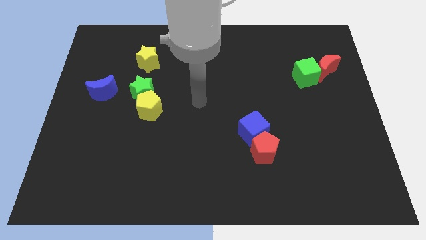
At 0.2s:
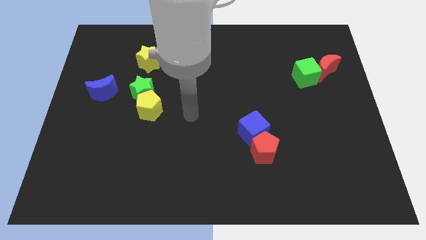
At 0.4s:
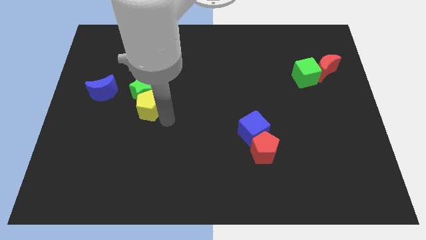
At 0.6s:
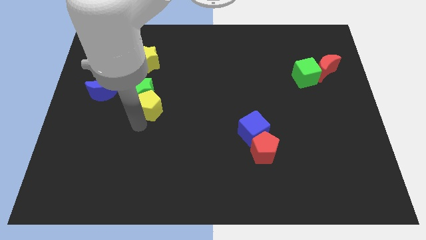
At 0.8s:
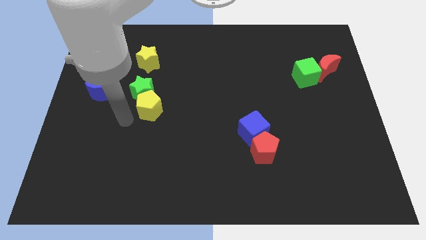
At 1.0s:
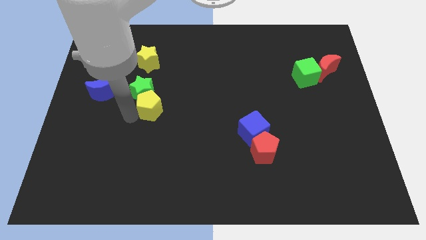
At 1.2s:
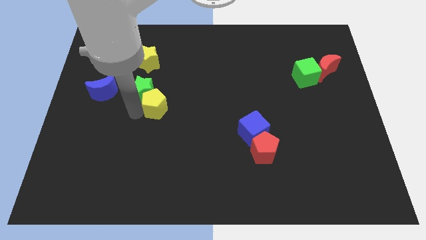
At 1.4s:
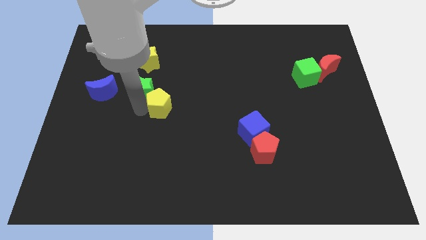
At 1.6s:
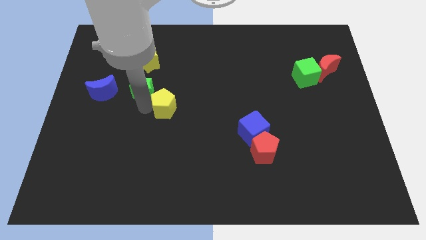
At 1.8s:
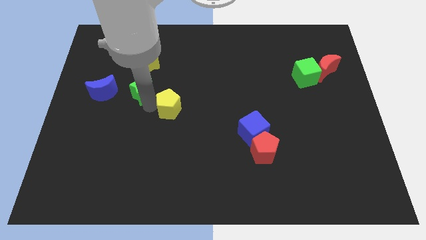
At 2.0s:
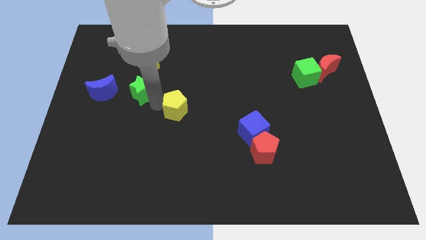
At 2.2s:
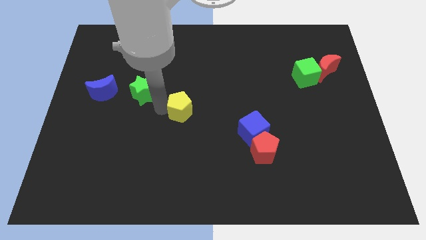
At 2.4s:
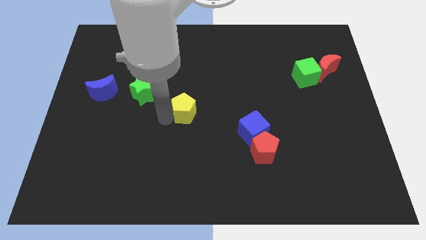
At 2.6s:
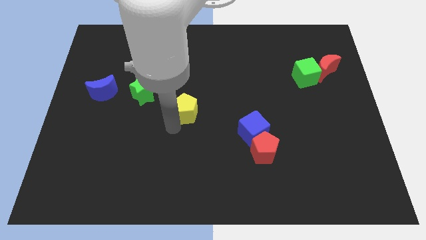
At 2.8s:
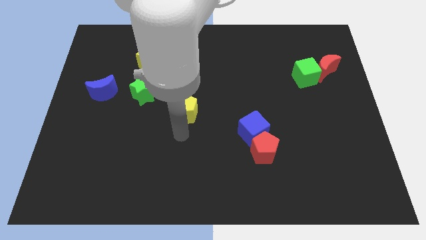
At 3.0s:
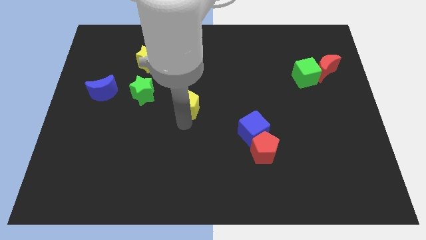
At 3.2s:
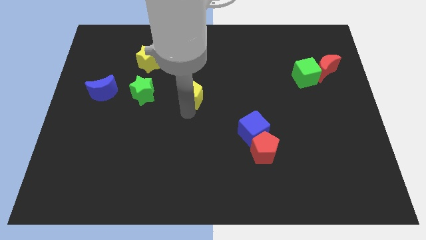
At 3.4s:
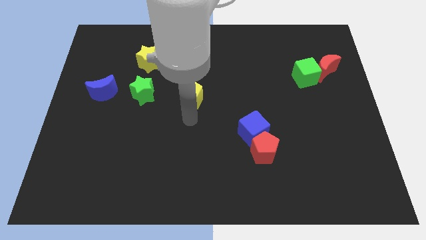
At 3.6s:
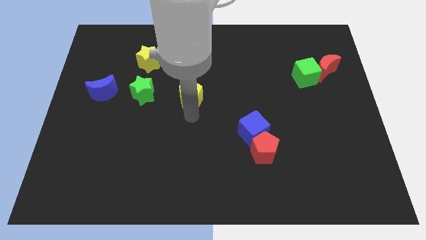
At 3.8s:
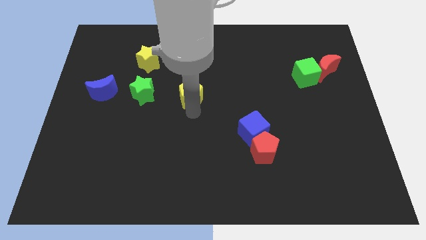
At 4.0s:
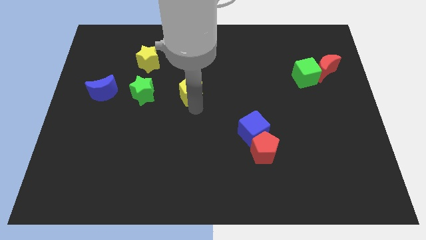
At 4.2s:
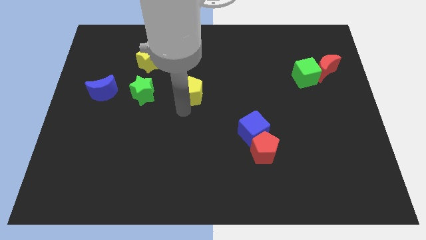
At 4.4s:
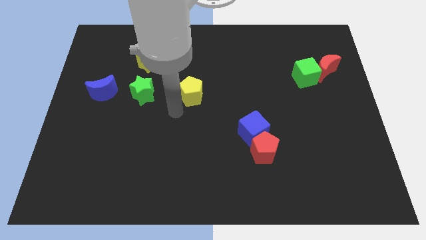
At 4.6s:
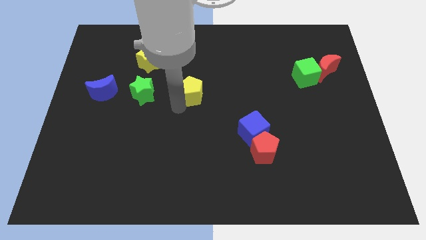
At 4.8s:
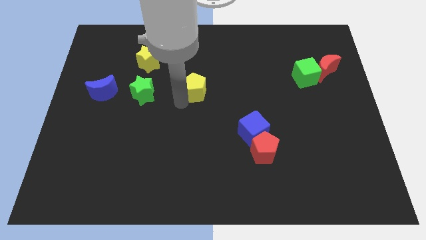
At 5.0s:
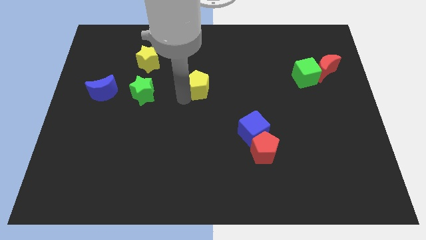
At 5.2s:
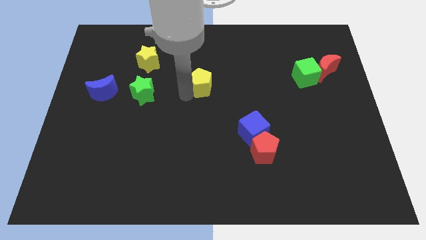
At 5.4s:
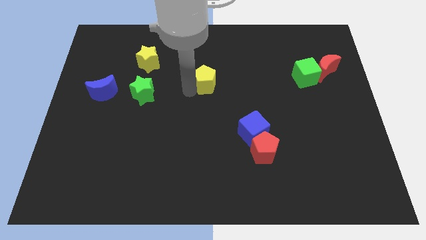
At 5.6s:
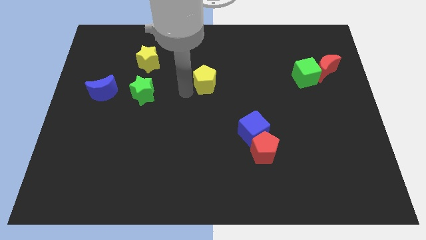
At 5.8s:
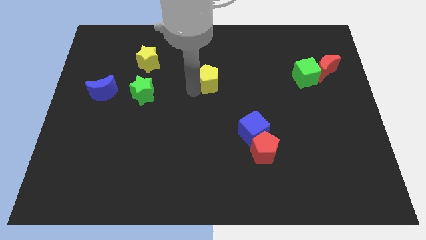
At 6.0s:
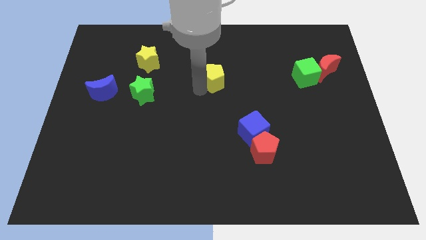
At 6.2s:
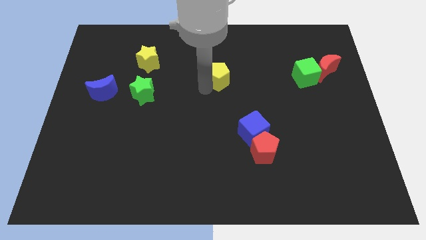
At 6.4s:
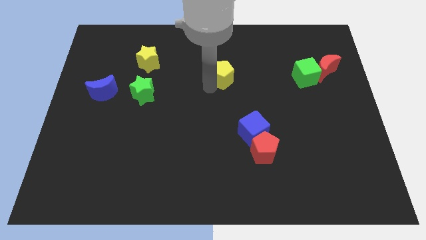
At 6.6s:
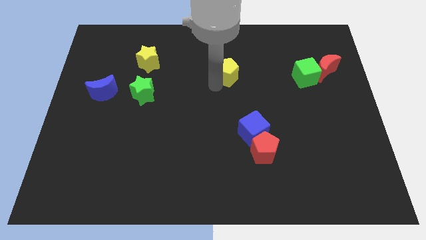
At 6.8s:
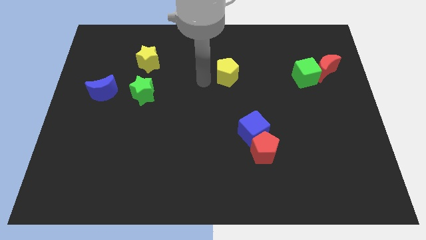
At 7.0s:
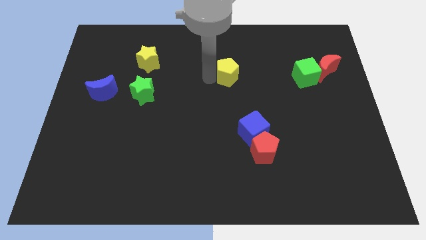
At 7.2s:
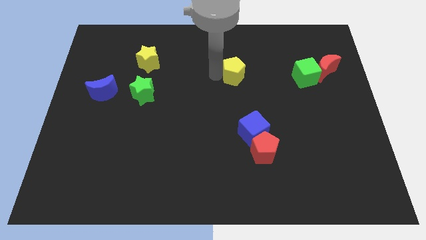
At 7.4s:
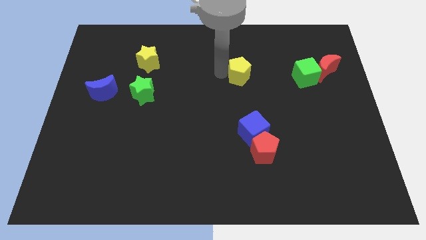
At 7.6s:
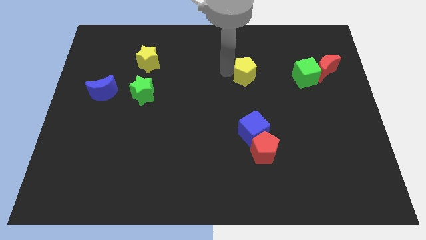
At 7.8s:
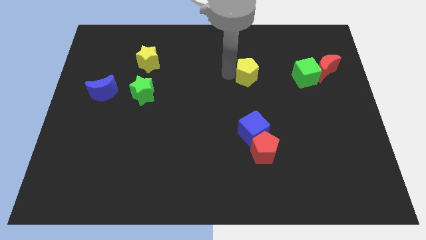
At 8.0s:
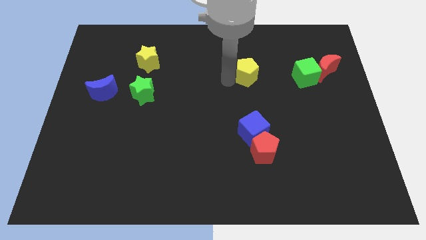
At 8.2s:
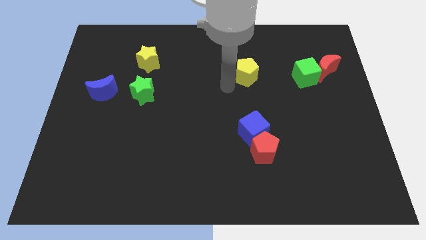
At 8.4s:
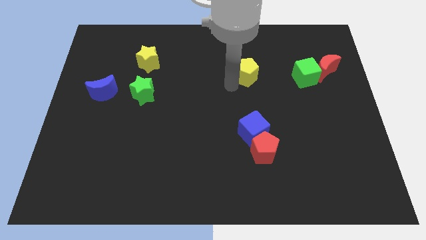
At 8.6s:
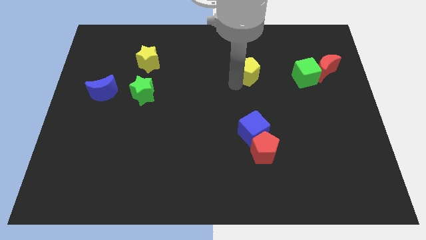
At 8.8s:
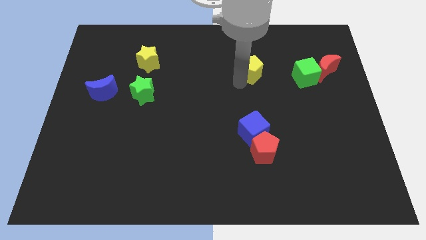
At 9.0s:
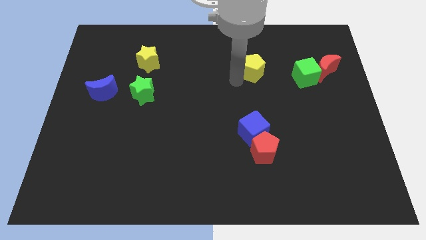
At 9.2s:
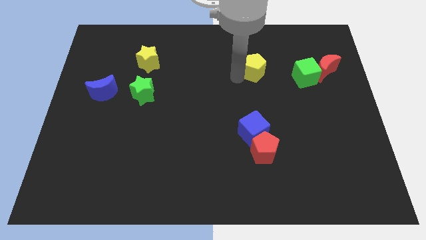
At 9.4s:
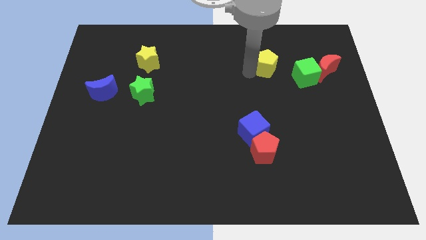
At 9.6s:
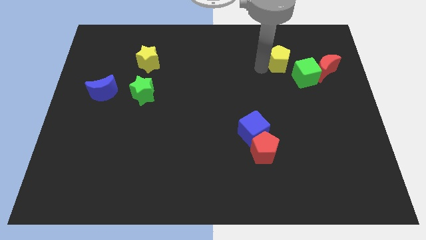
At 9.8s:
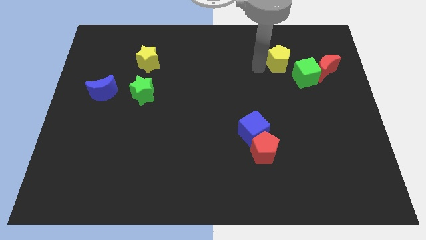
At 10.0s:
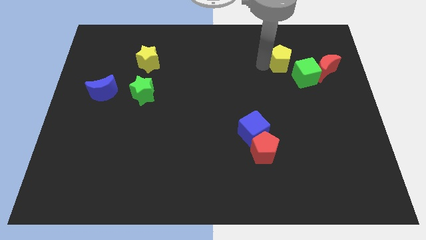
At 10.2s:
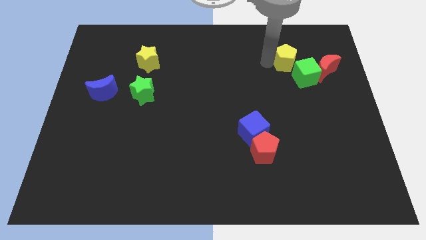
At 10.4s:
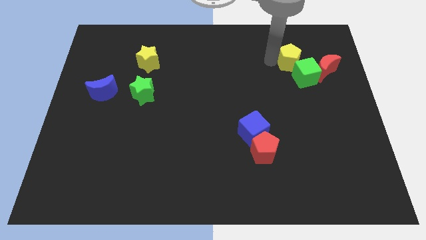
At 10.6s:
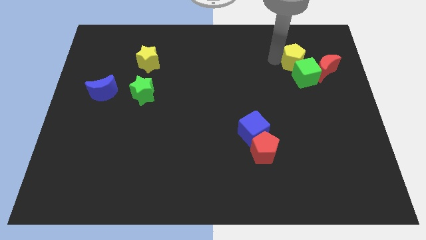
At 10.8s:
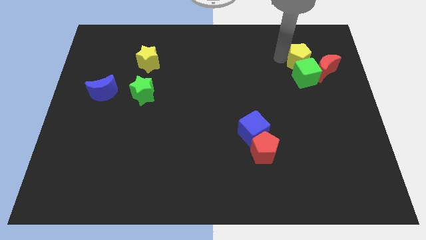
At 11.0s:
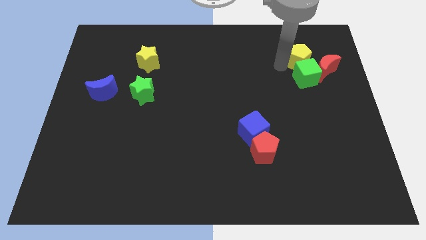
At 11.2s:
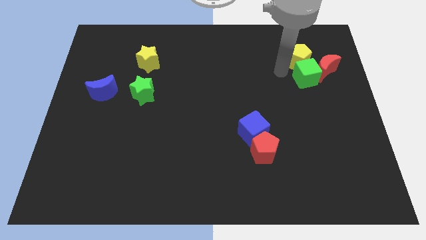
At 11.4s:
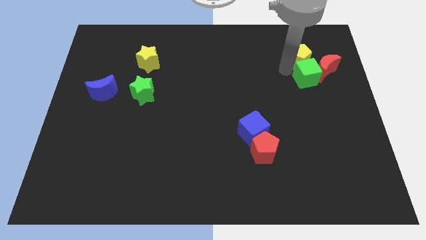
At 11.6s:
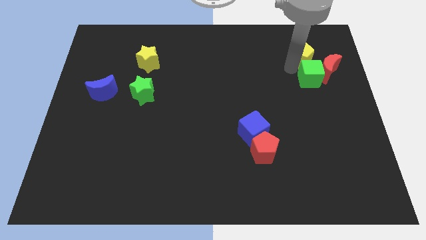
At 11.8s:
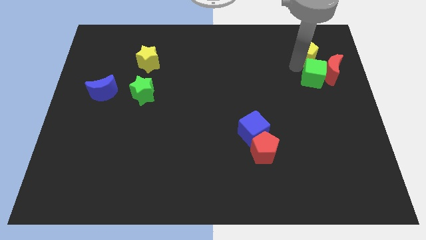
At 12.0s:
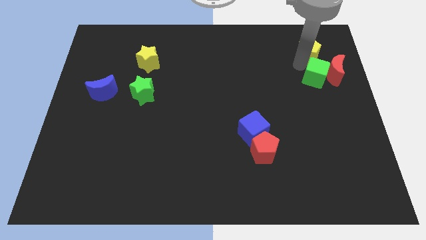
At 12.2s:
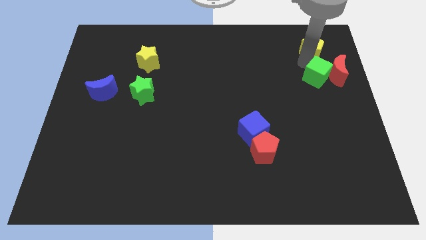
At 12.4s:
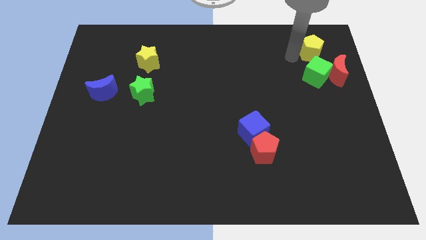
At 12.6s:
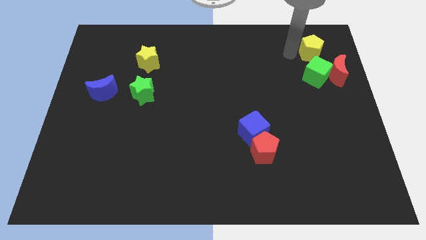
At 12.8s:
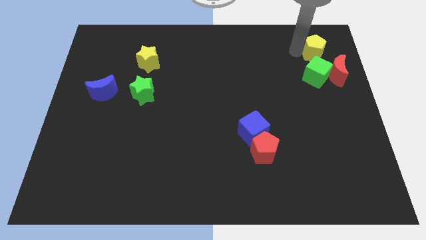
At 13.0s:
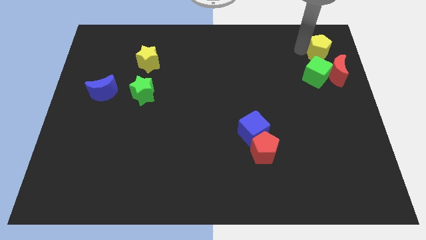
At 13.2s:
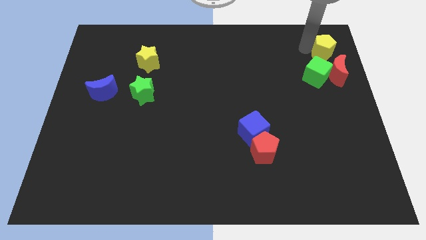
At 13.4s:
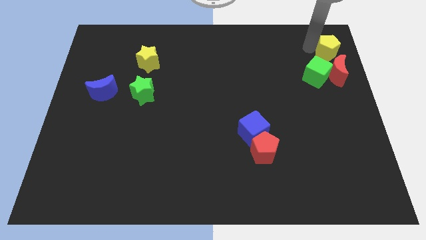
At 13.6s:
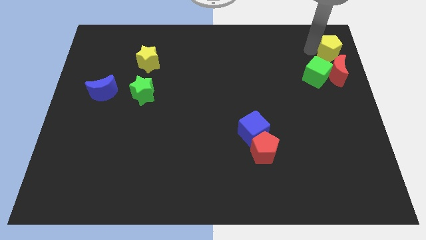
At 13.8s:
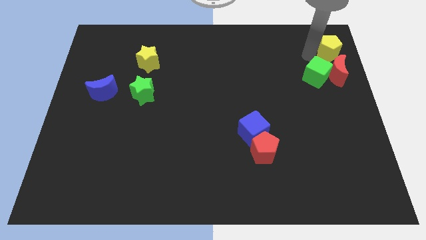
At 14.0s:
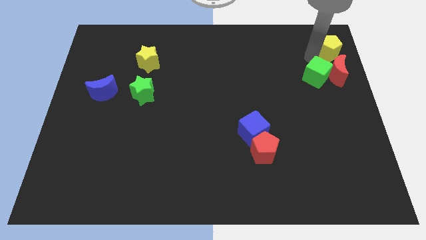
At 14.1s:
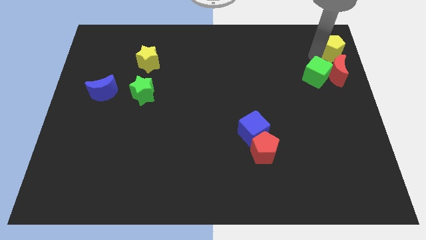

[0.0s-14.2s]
push the yellow pentagon to the top right
